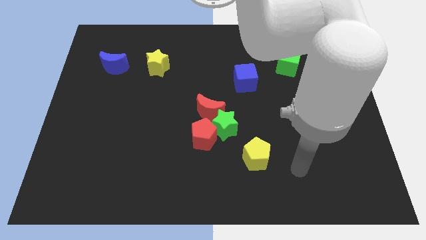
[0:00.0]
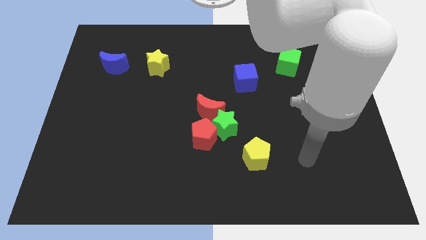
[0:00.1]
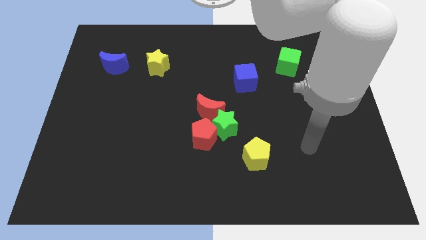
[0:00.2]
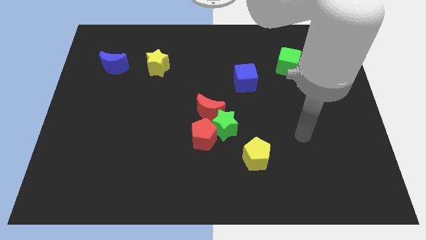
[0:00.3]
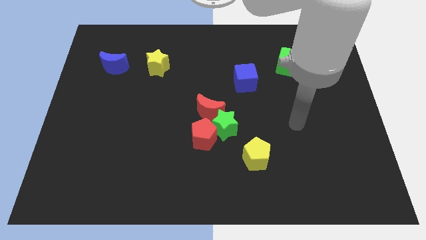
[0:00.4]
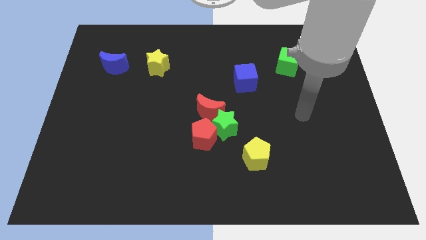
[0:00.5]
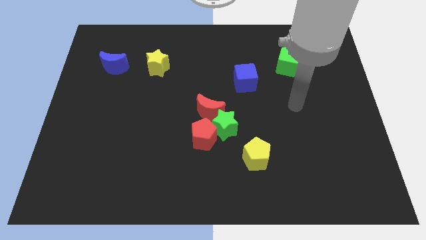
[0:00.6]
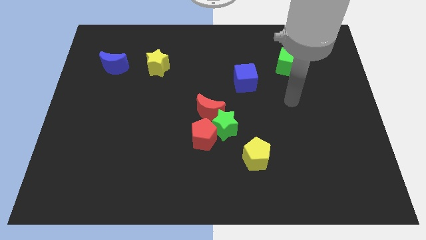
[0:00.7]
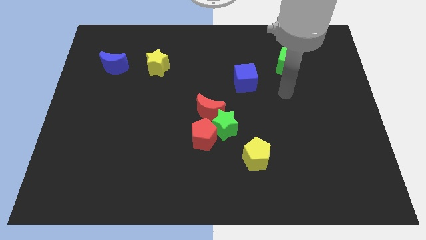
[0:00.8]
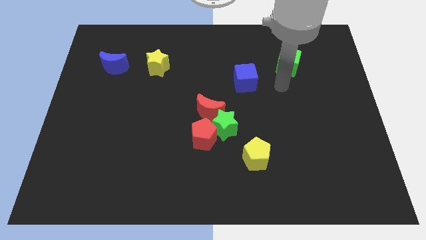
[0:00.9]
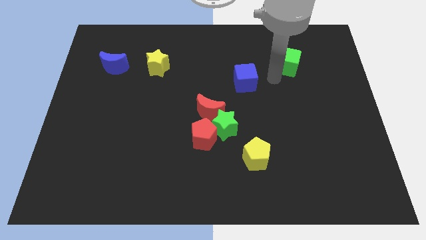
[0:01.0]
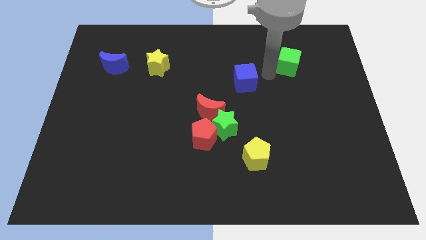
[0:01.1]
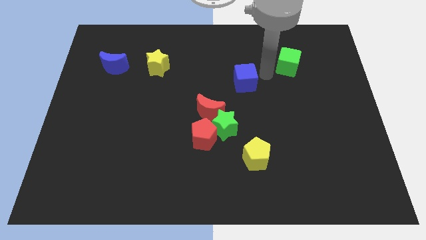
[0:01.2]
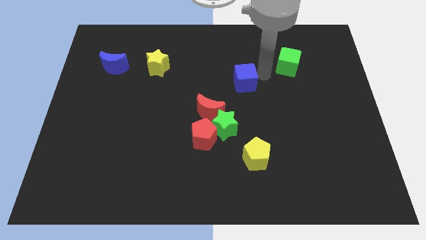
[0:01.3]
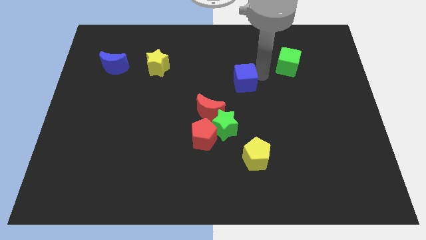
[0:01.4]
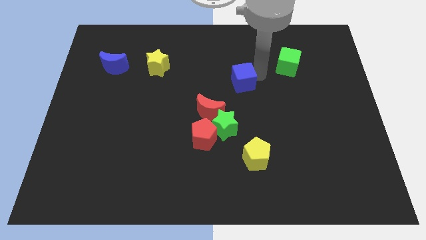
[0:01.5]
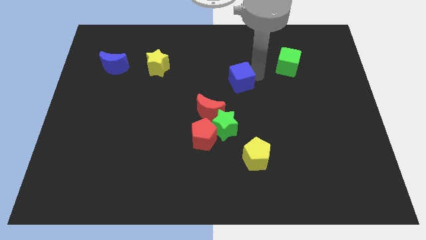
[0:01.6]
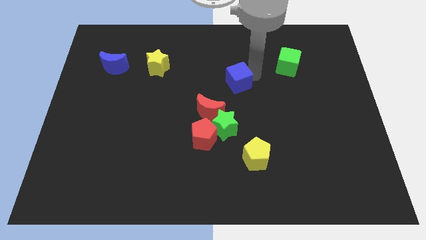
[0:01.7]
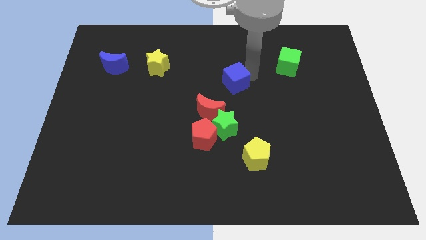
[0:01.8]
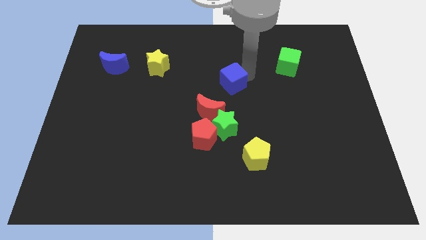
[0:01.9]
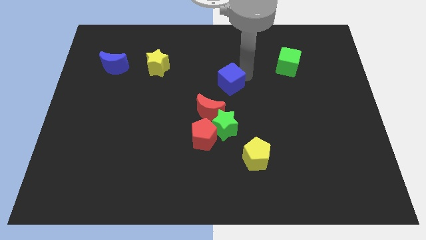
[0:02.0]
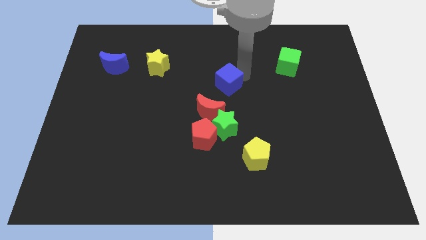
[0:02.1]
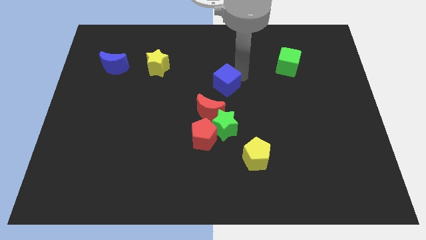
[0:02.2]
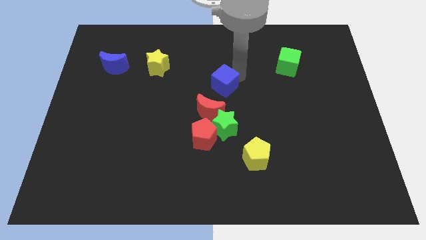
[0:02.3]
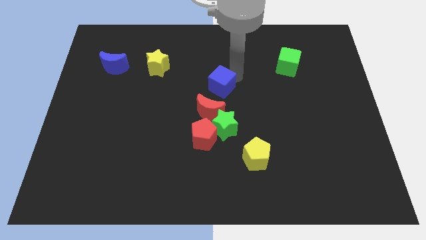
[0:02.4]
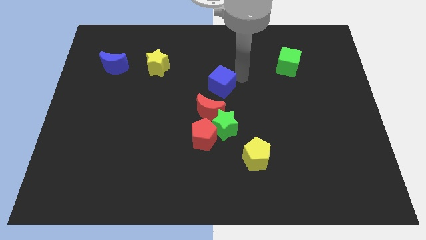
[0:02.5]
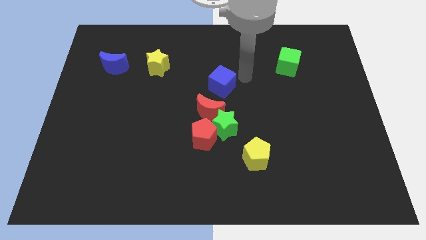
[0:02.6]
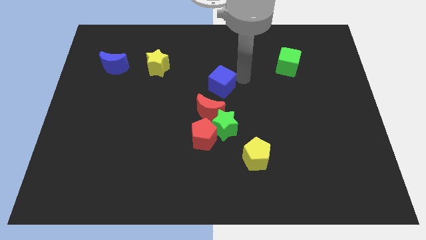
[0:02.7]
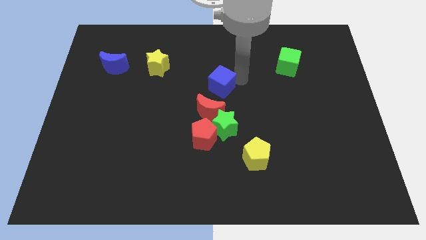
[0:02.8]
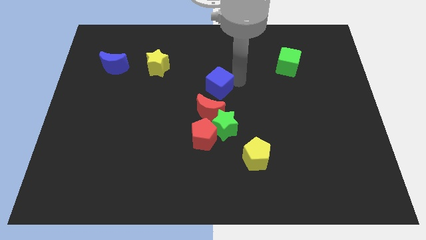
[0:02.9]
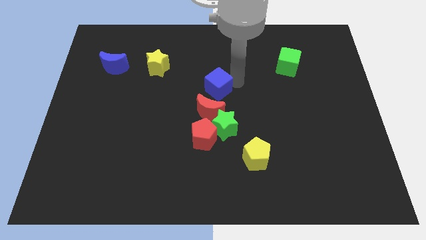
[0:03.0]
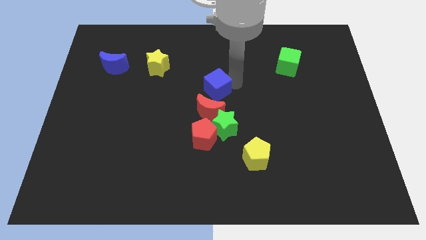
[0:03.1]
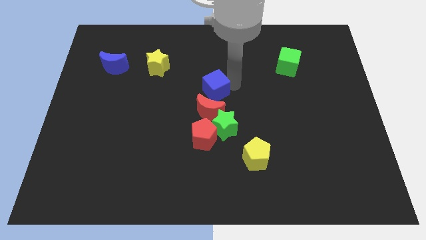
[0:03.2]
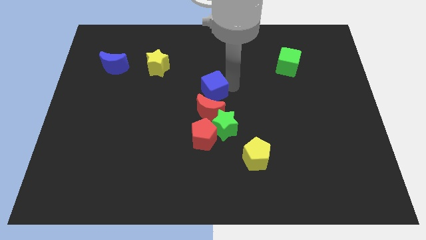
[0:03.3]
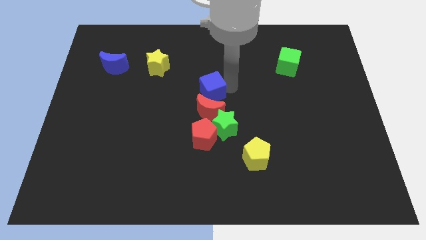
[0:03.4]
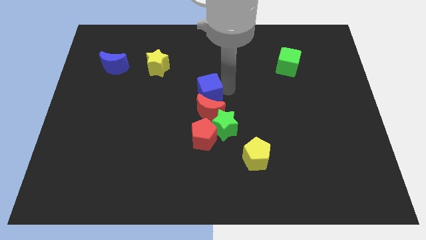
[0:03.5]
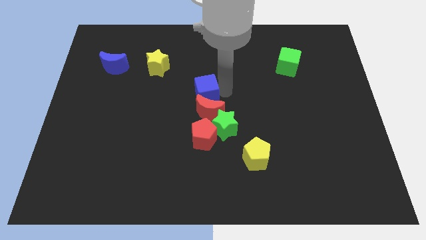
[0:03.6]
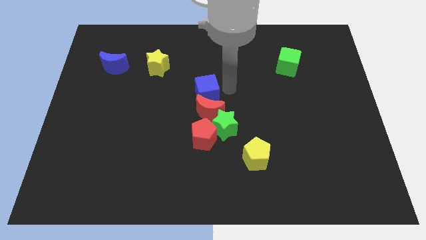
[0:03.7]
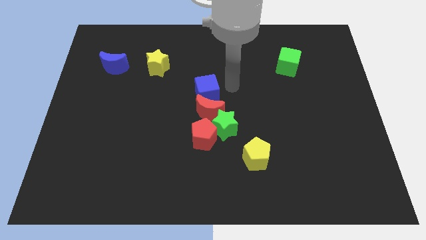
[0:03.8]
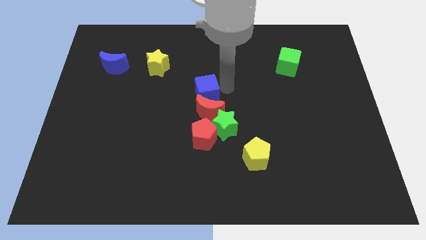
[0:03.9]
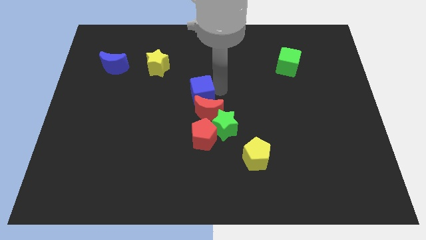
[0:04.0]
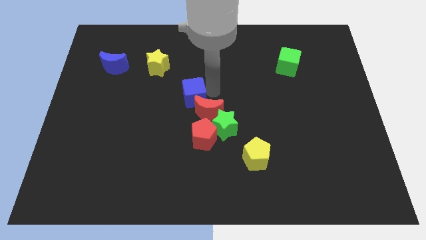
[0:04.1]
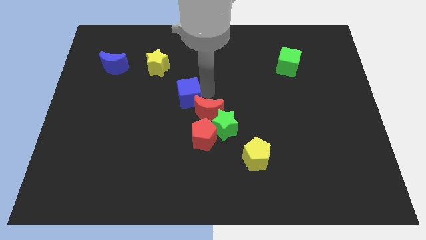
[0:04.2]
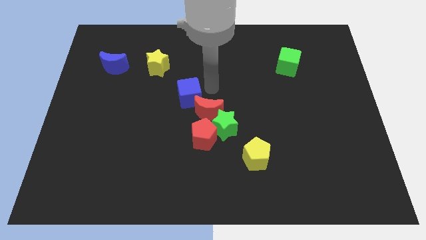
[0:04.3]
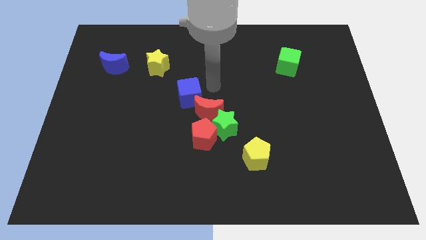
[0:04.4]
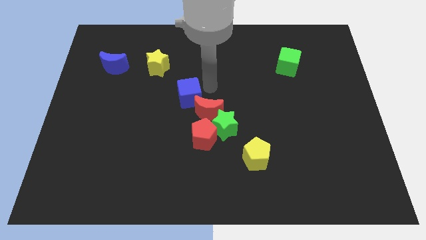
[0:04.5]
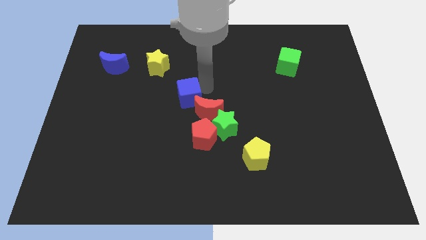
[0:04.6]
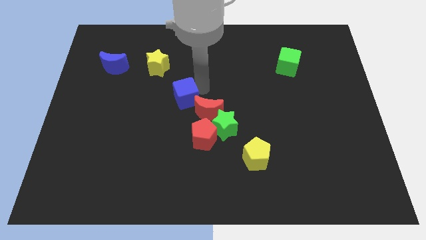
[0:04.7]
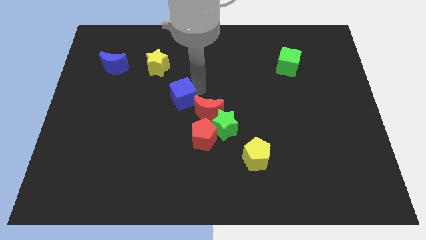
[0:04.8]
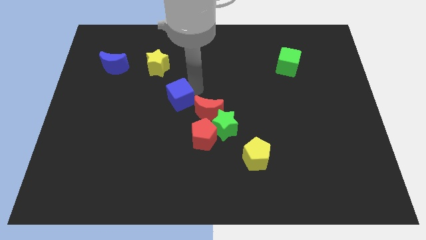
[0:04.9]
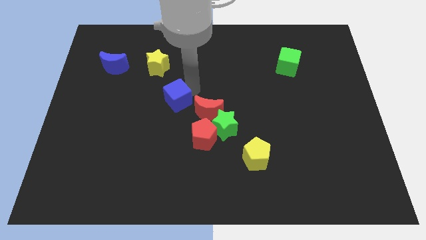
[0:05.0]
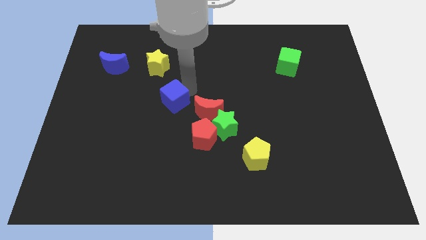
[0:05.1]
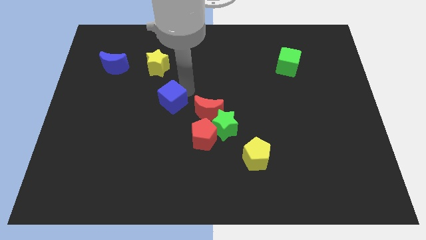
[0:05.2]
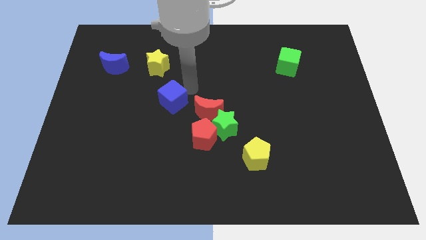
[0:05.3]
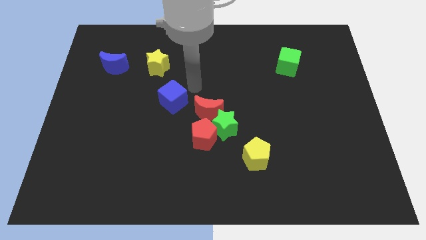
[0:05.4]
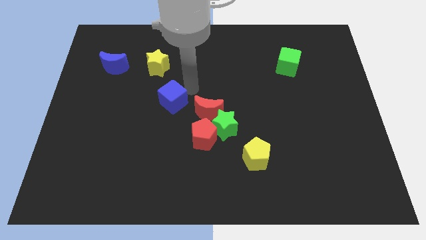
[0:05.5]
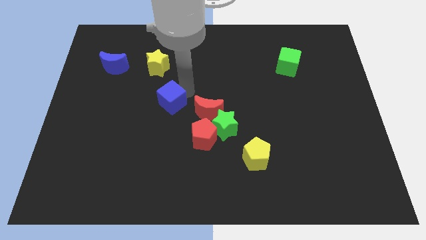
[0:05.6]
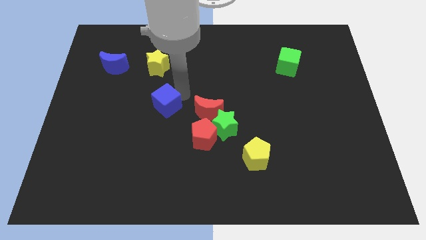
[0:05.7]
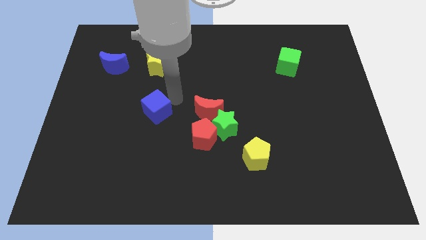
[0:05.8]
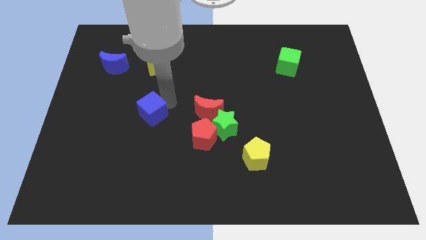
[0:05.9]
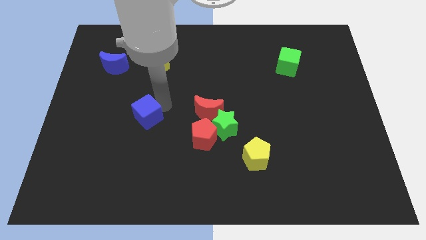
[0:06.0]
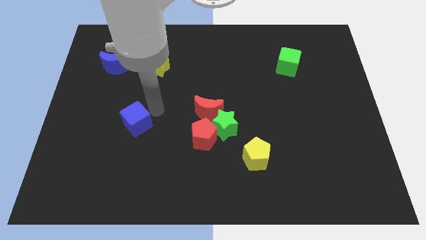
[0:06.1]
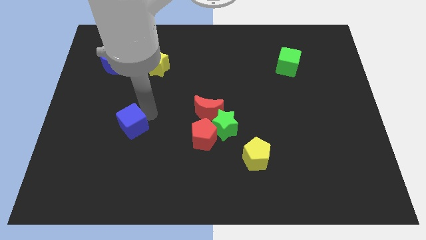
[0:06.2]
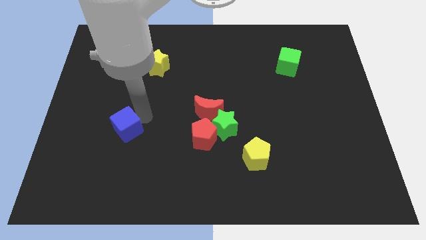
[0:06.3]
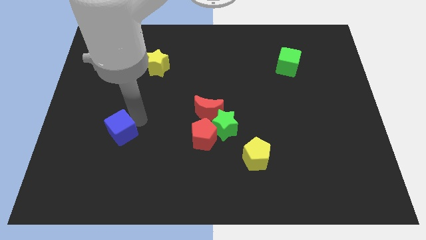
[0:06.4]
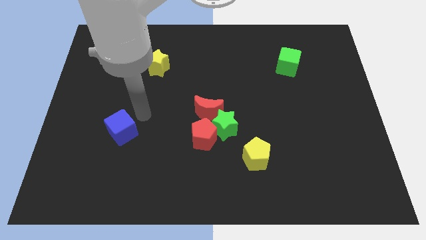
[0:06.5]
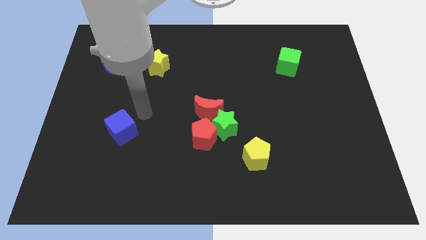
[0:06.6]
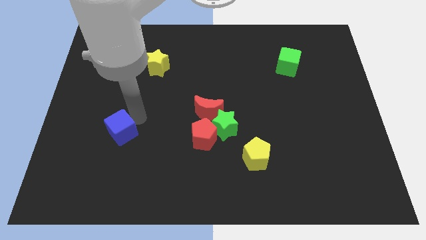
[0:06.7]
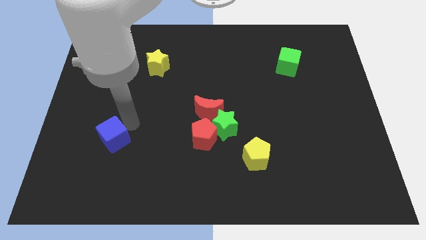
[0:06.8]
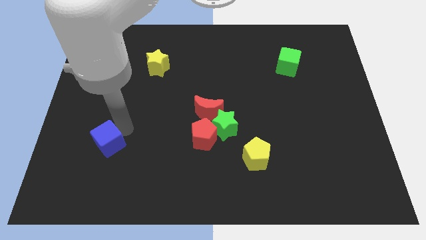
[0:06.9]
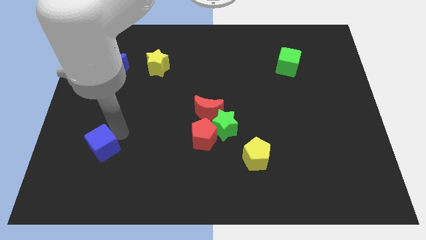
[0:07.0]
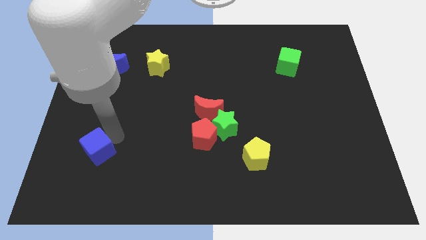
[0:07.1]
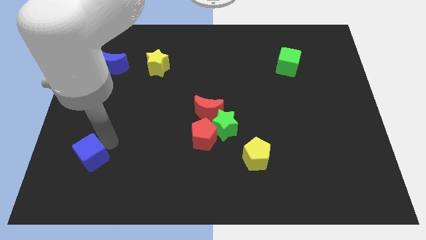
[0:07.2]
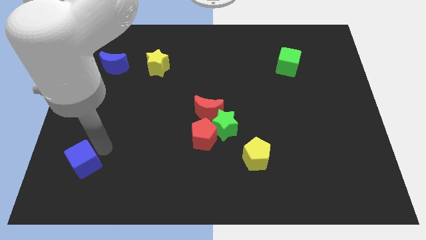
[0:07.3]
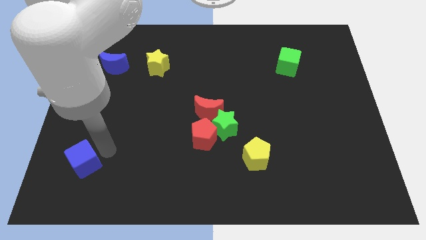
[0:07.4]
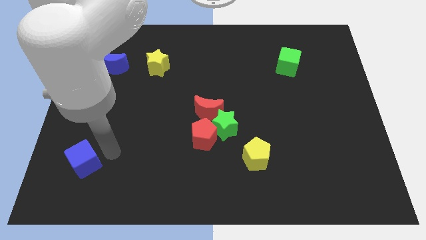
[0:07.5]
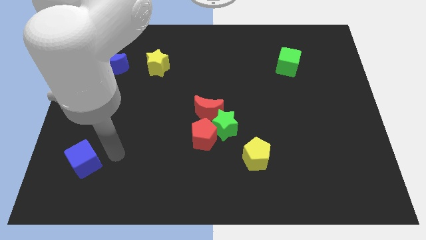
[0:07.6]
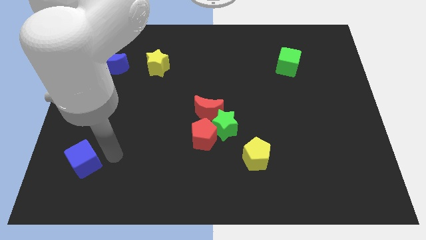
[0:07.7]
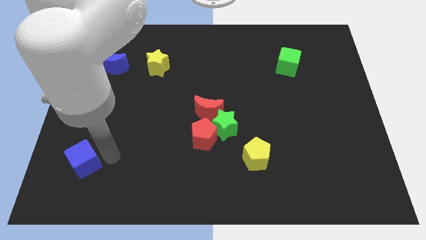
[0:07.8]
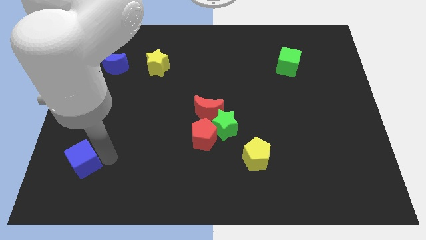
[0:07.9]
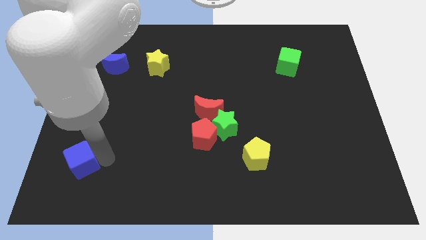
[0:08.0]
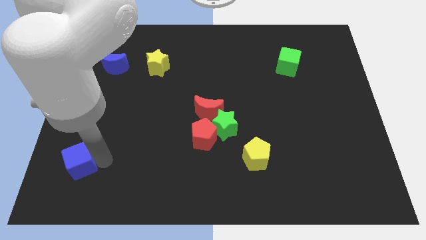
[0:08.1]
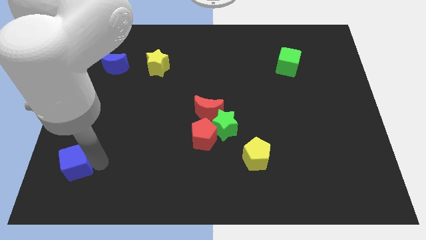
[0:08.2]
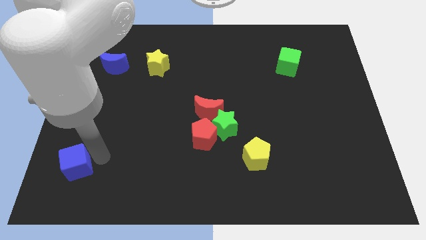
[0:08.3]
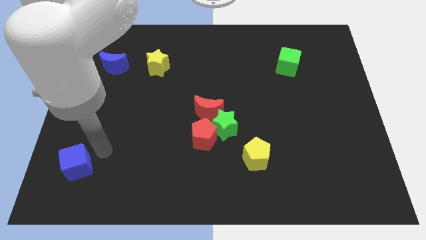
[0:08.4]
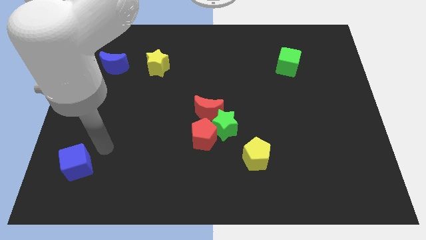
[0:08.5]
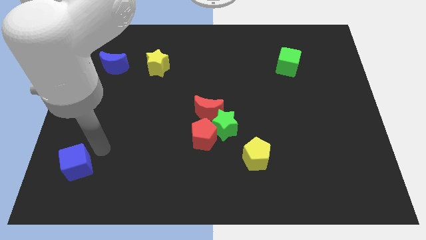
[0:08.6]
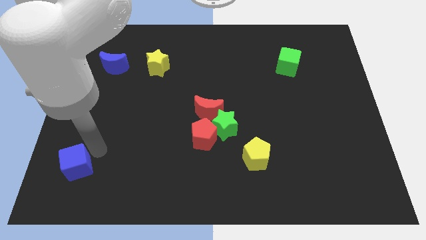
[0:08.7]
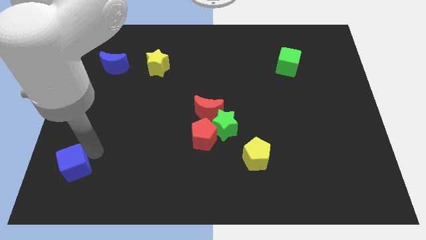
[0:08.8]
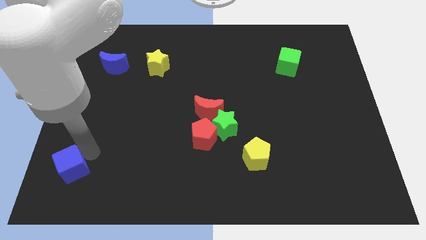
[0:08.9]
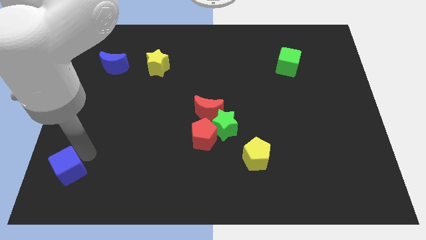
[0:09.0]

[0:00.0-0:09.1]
move the blue cube to the lower left corner
